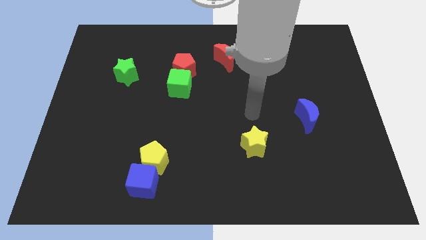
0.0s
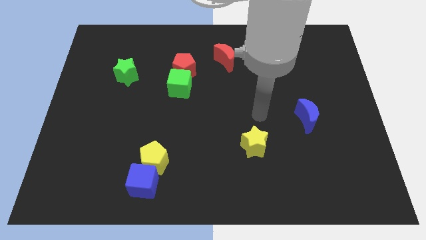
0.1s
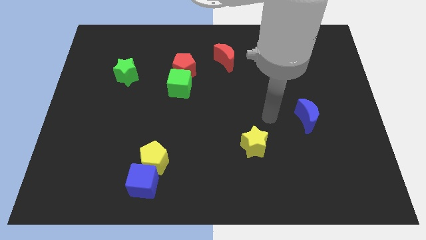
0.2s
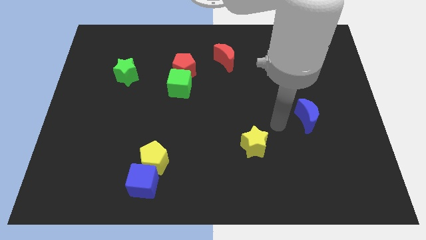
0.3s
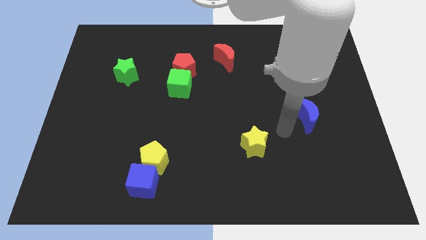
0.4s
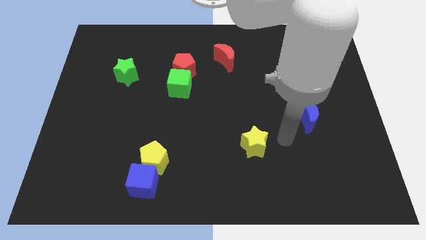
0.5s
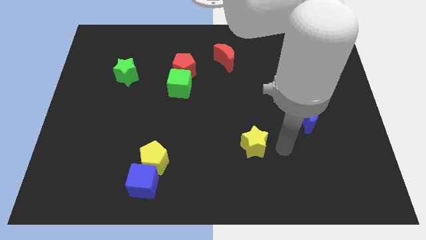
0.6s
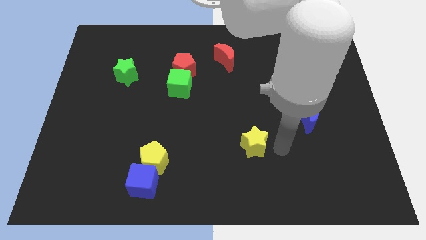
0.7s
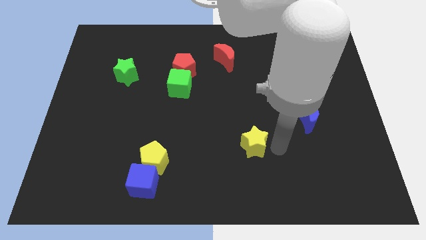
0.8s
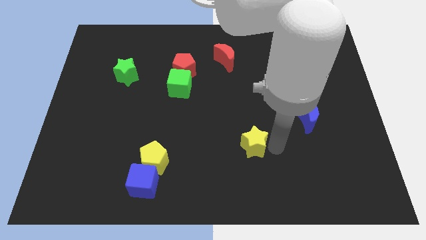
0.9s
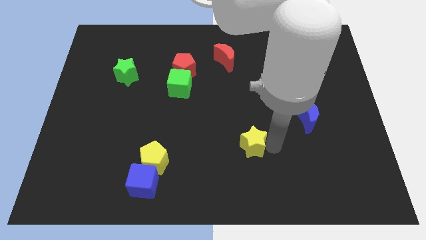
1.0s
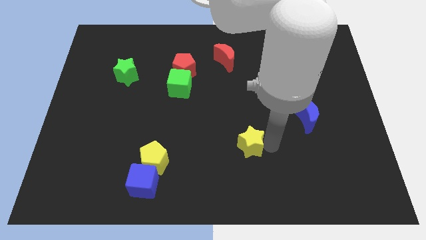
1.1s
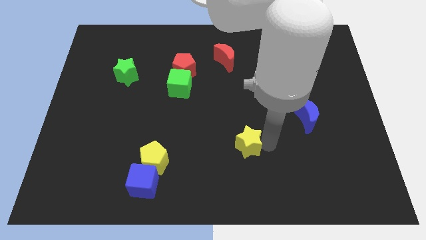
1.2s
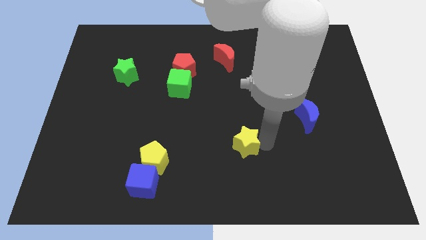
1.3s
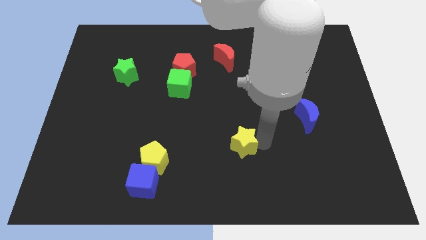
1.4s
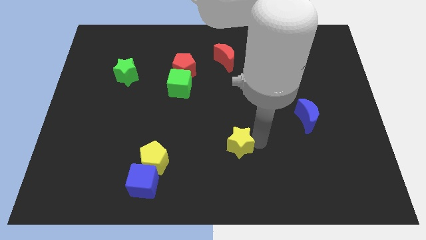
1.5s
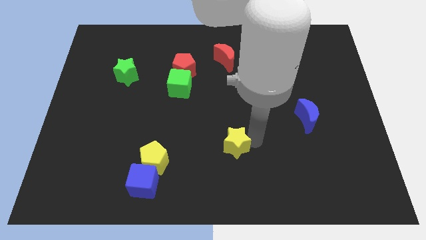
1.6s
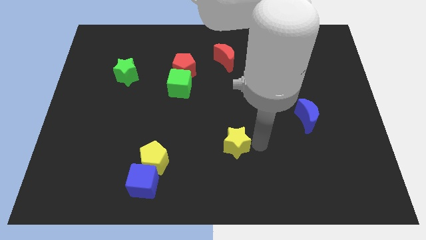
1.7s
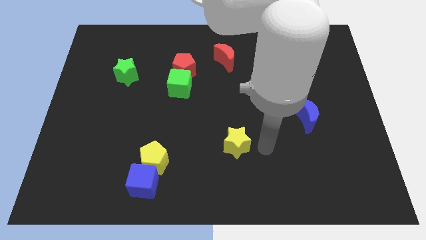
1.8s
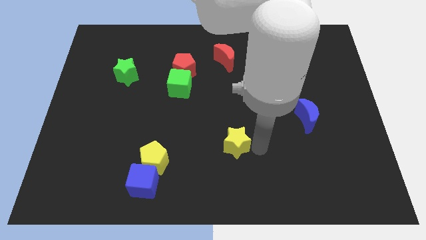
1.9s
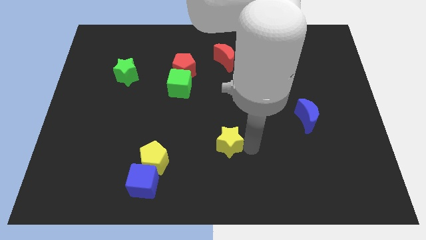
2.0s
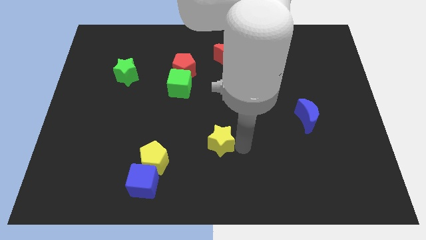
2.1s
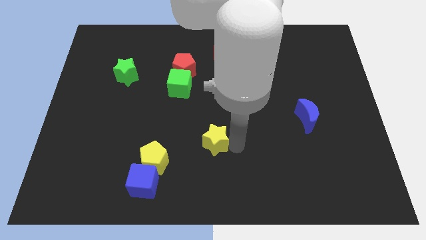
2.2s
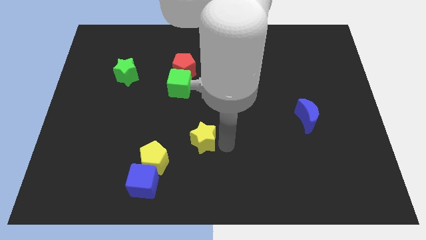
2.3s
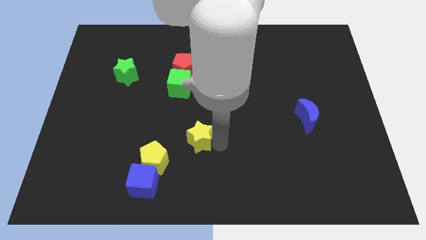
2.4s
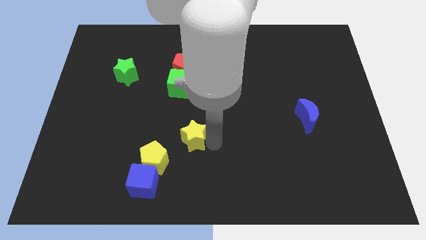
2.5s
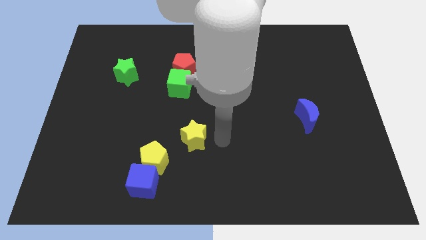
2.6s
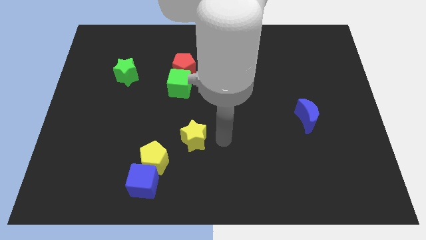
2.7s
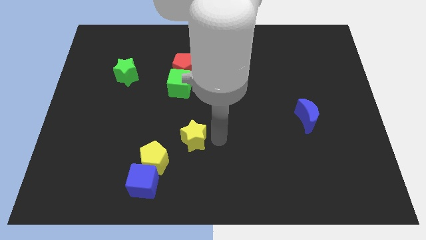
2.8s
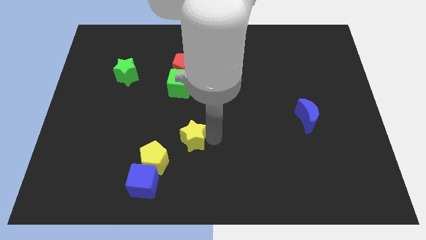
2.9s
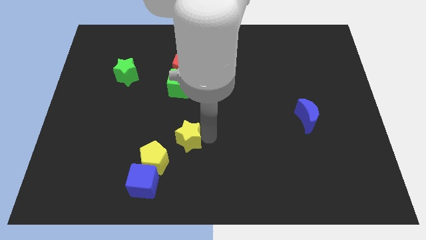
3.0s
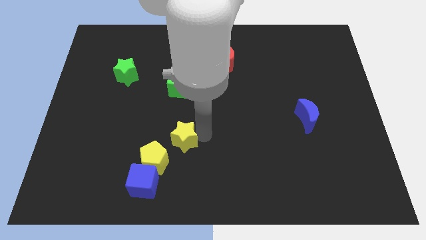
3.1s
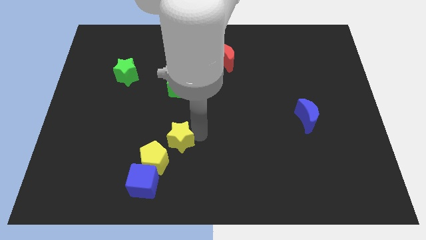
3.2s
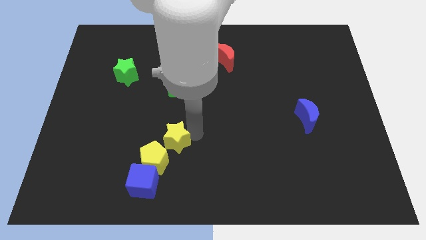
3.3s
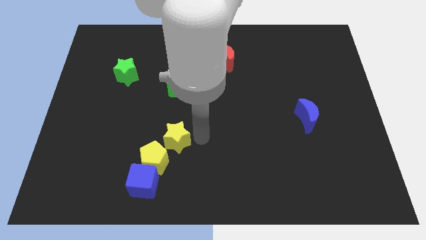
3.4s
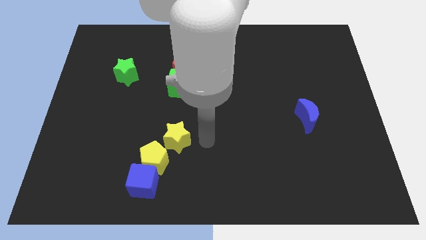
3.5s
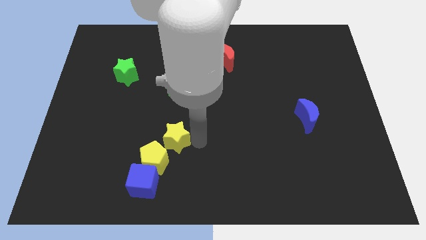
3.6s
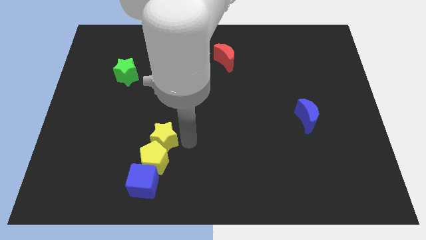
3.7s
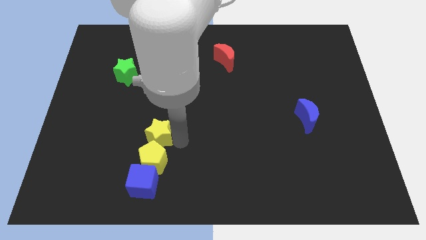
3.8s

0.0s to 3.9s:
move the yellow star to the left

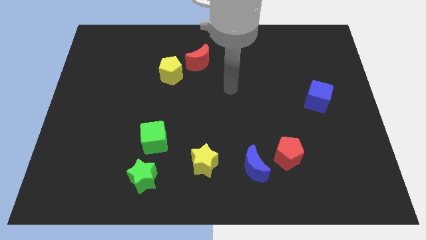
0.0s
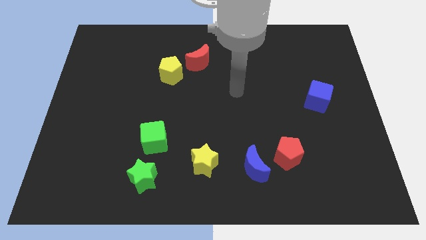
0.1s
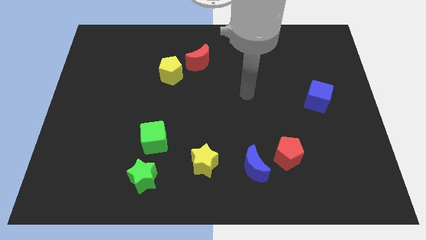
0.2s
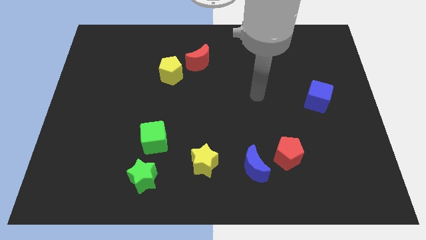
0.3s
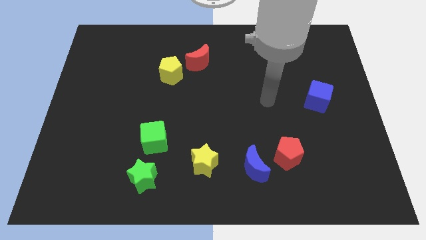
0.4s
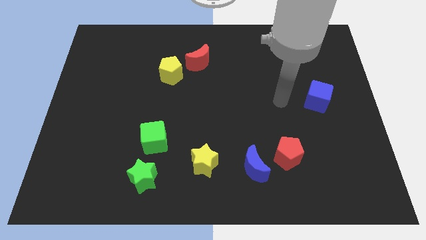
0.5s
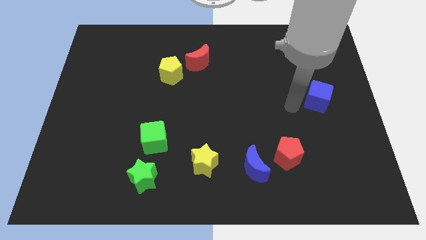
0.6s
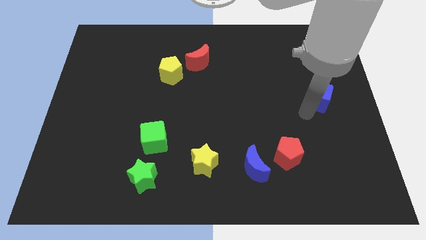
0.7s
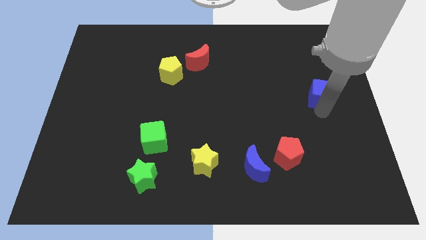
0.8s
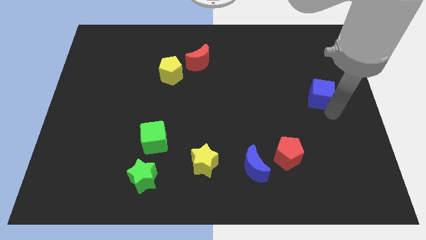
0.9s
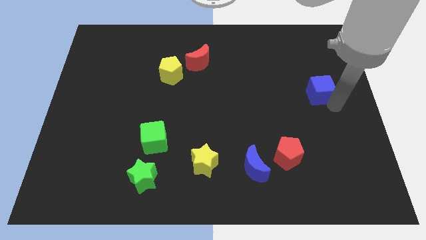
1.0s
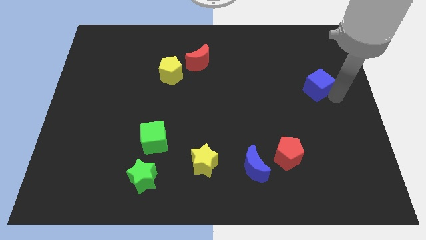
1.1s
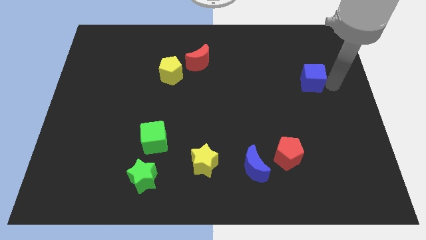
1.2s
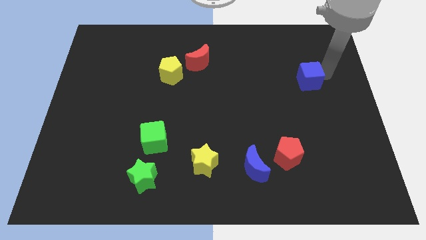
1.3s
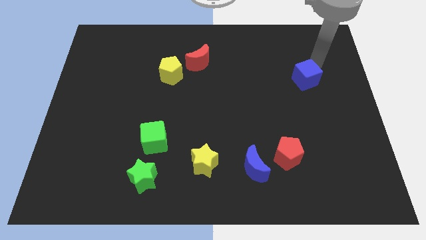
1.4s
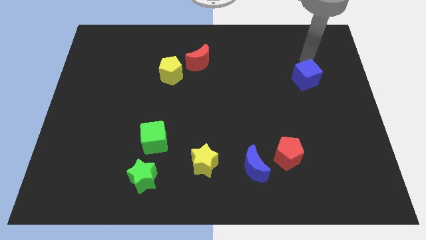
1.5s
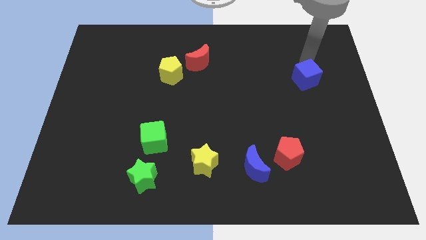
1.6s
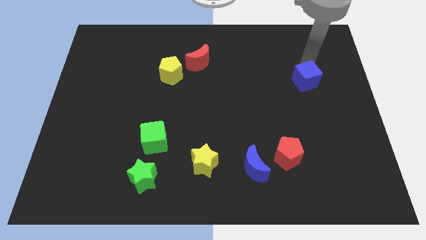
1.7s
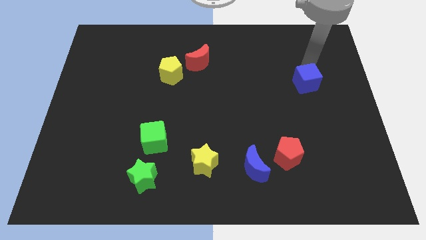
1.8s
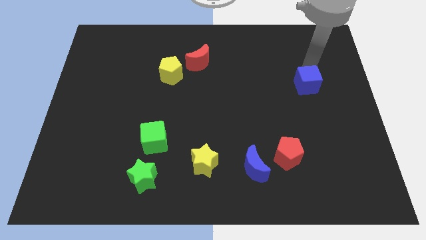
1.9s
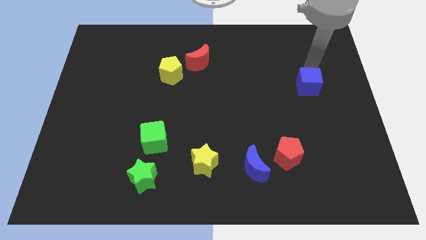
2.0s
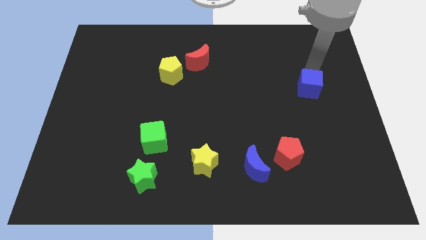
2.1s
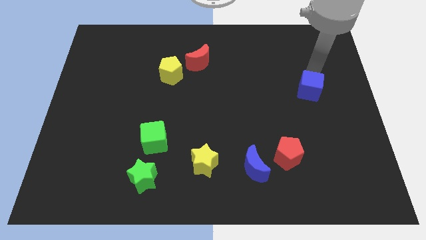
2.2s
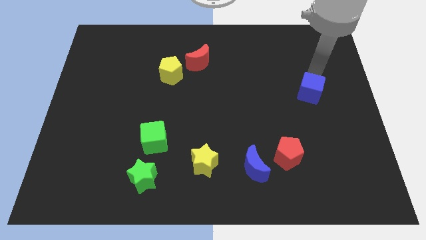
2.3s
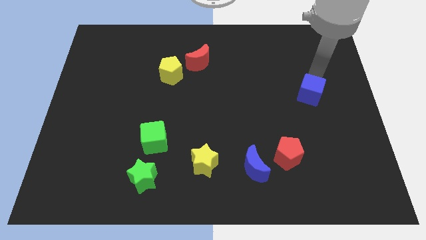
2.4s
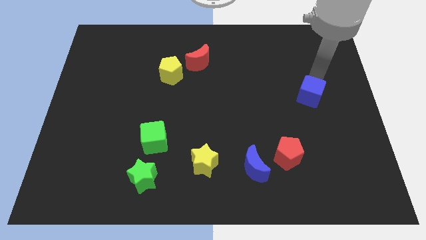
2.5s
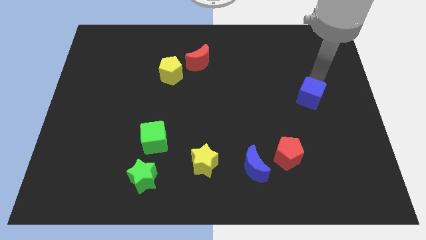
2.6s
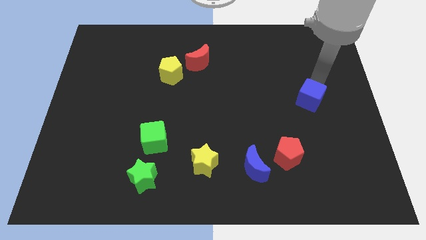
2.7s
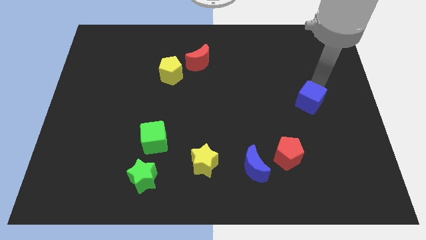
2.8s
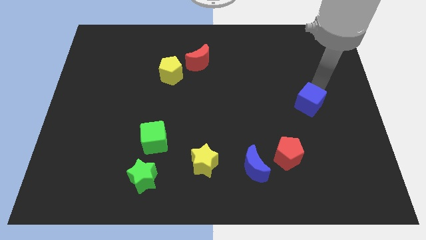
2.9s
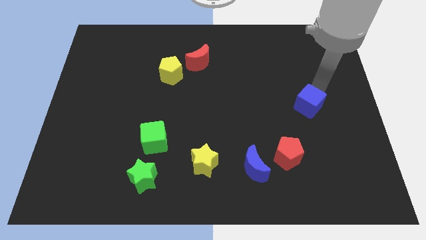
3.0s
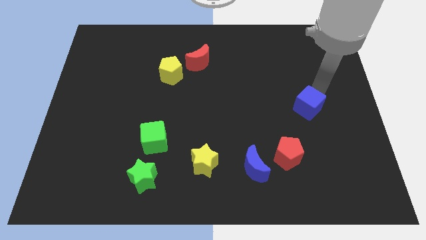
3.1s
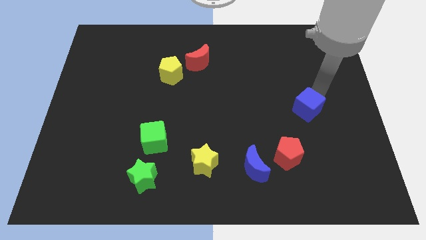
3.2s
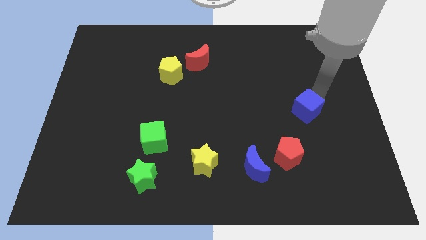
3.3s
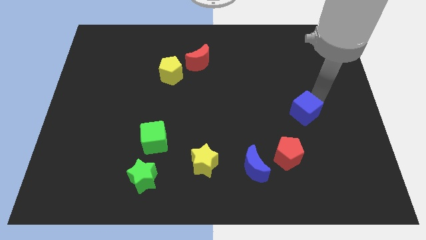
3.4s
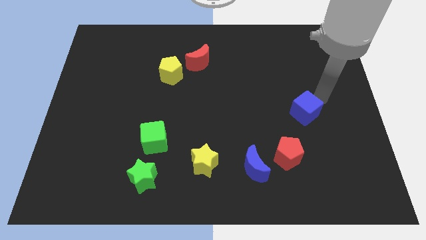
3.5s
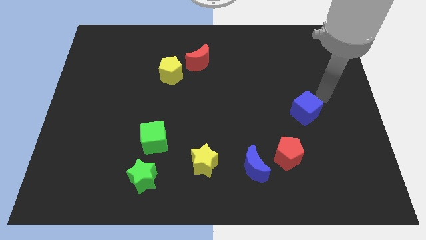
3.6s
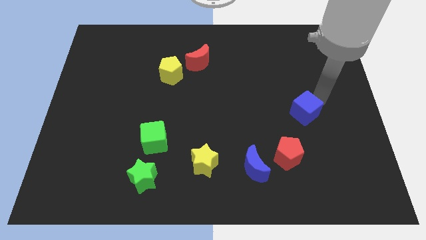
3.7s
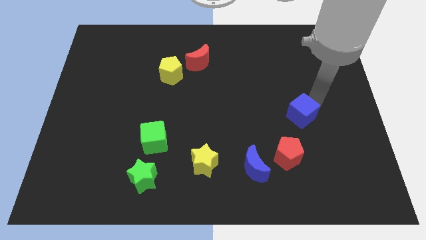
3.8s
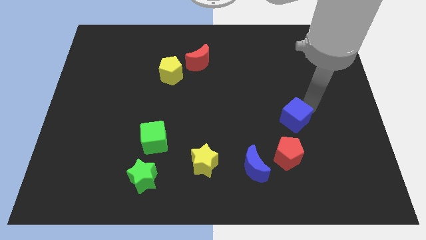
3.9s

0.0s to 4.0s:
slide the blue cube somewhat diagonally downwards and to the left

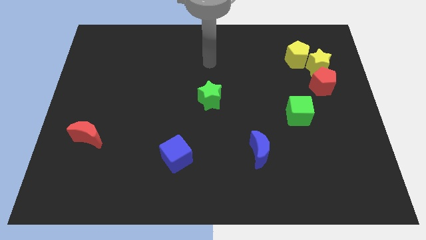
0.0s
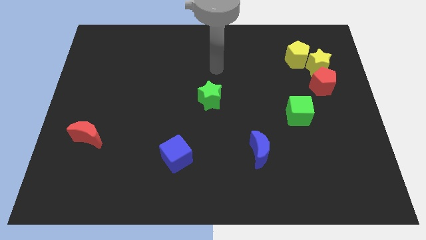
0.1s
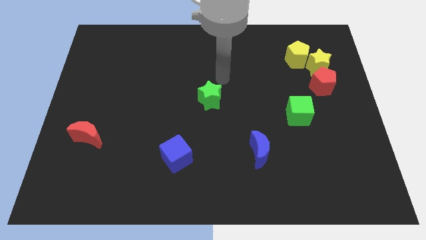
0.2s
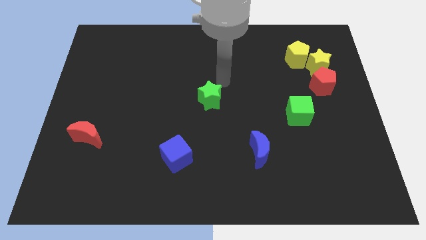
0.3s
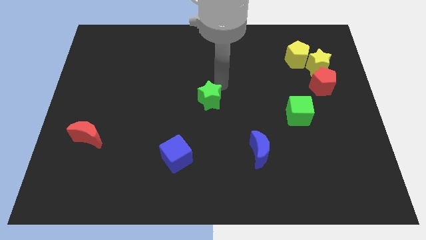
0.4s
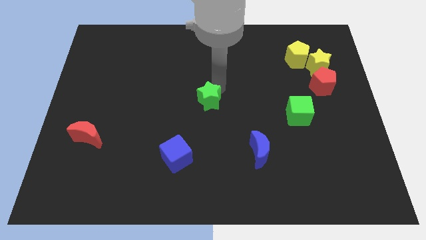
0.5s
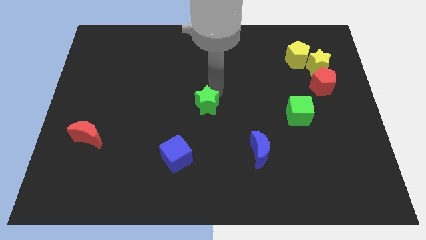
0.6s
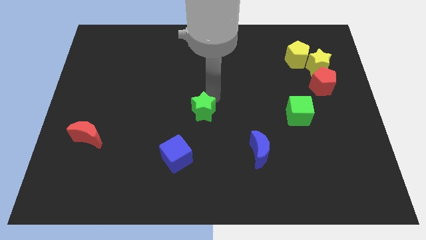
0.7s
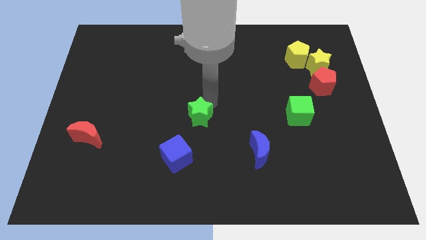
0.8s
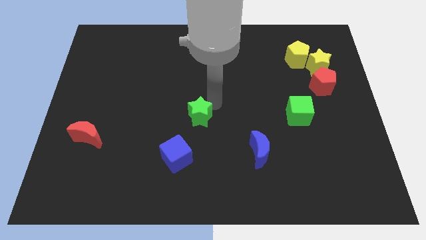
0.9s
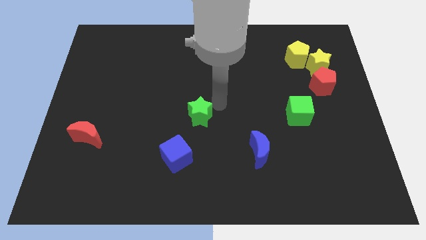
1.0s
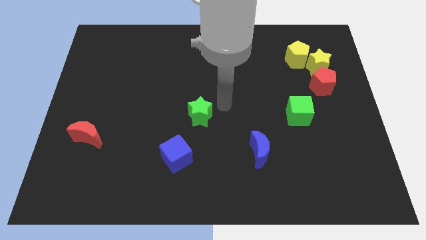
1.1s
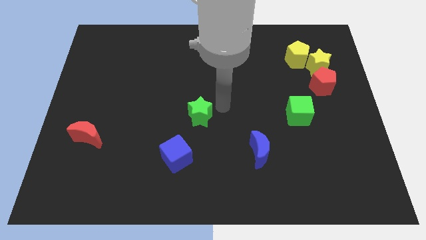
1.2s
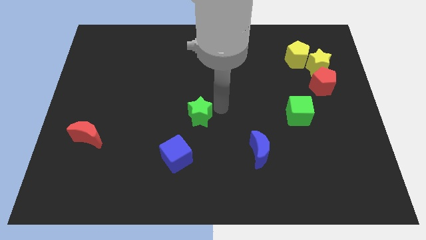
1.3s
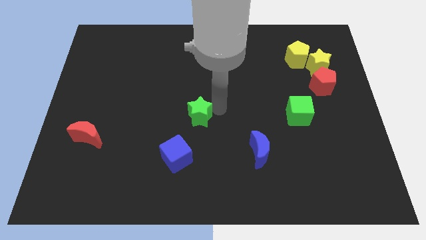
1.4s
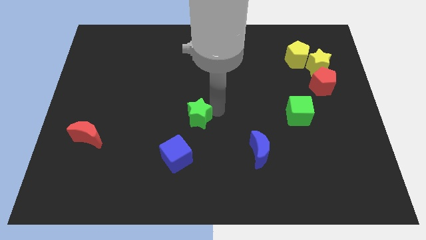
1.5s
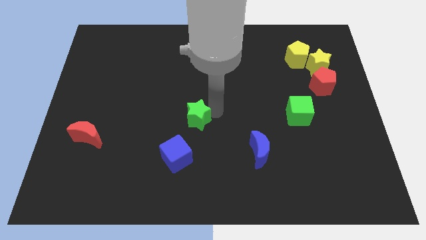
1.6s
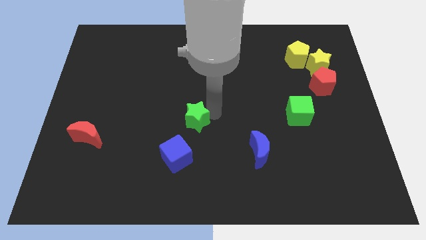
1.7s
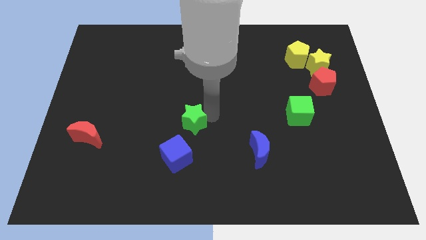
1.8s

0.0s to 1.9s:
push the green star somewhat down and left
